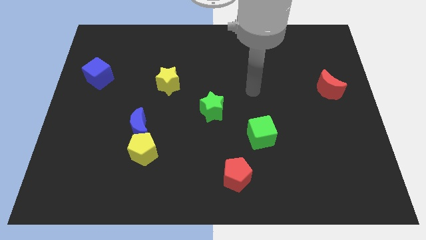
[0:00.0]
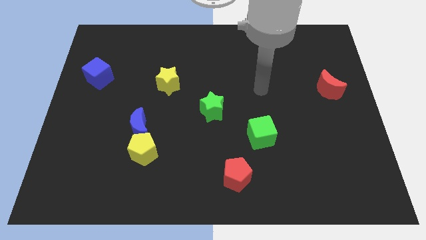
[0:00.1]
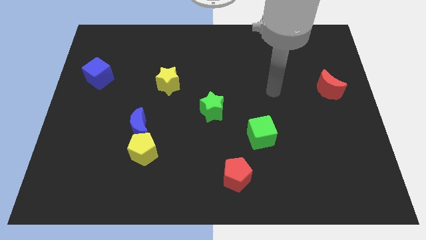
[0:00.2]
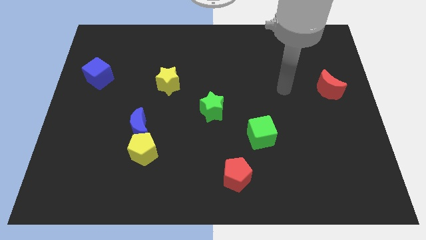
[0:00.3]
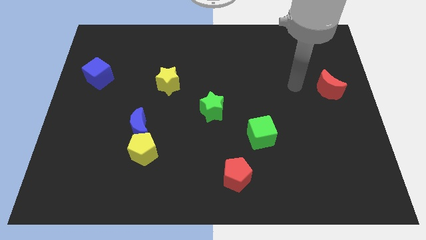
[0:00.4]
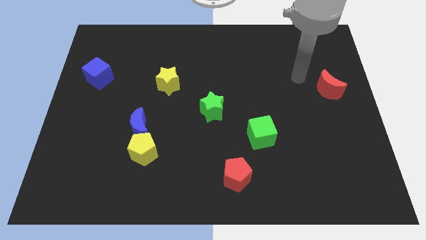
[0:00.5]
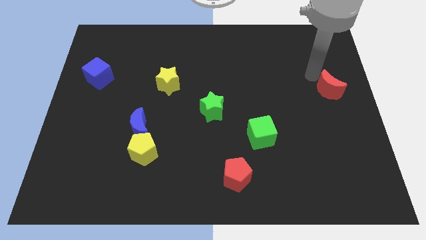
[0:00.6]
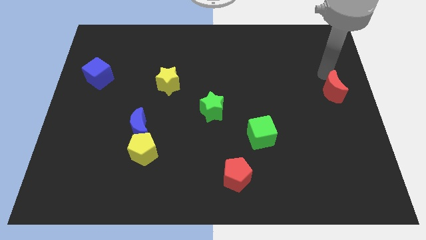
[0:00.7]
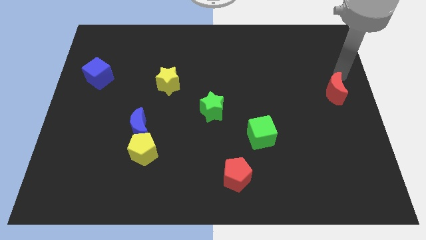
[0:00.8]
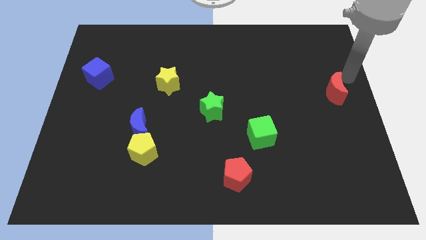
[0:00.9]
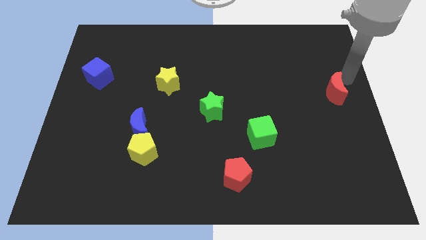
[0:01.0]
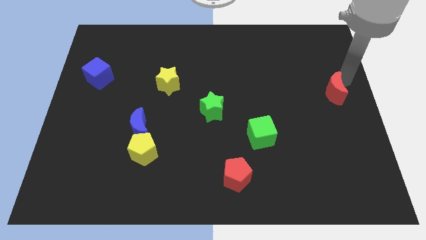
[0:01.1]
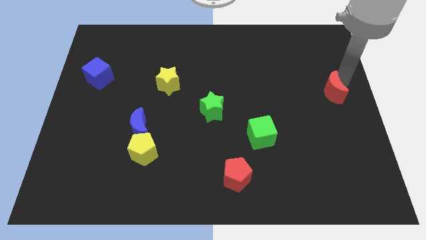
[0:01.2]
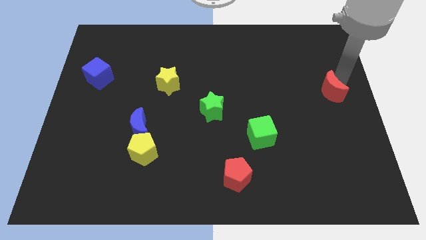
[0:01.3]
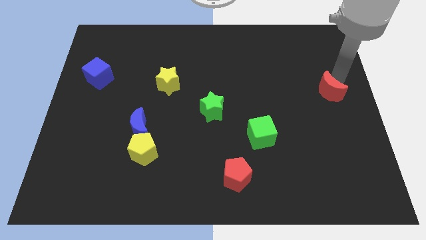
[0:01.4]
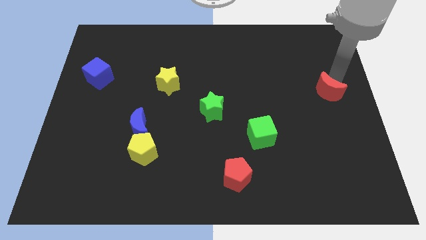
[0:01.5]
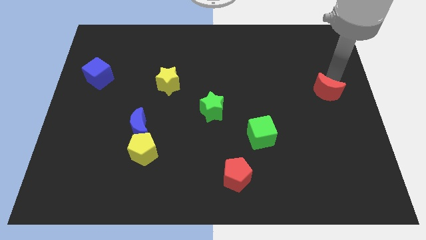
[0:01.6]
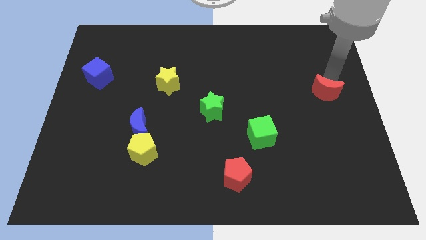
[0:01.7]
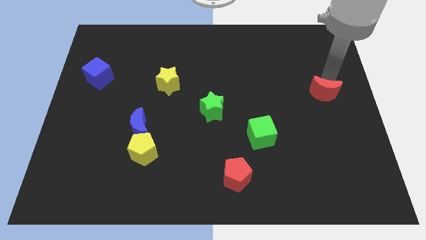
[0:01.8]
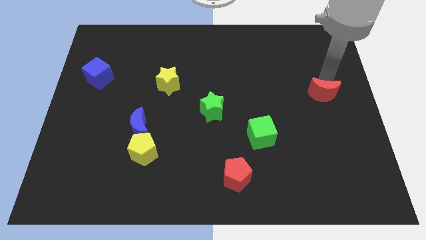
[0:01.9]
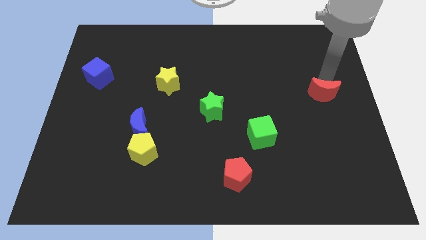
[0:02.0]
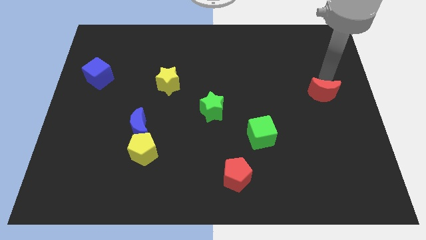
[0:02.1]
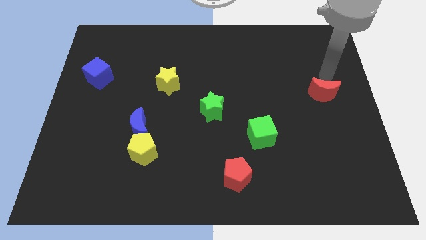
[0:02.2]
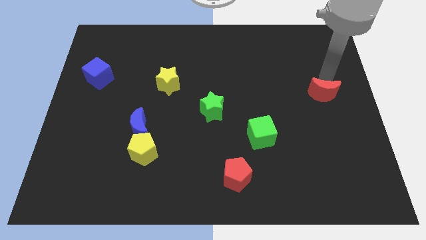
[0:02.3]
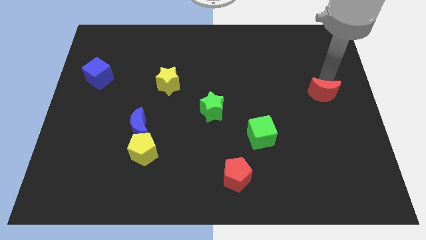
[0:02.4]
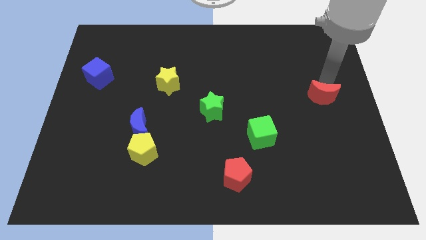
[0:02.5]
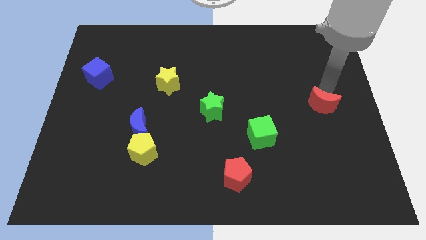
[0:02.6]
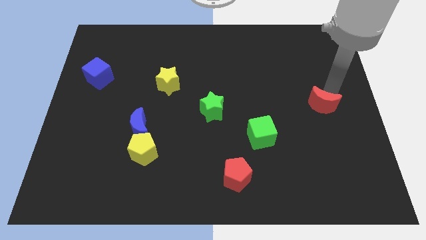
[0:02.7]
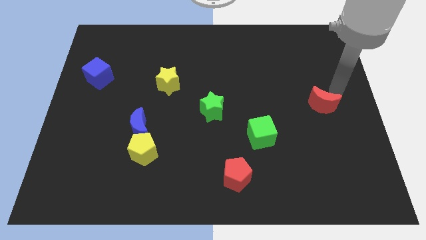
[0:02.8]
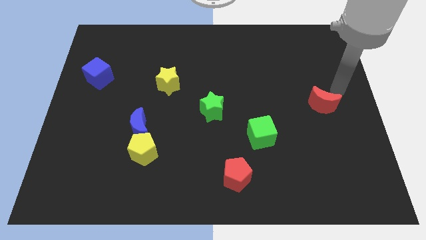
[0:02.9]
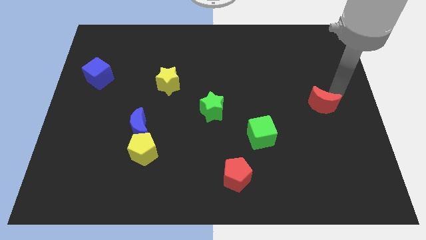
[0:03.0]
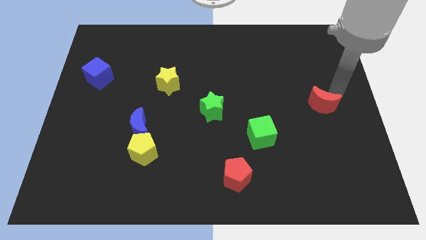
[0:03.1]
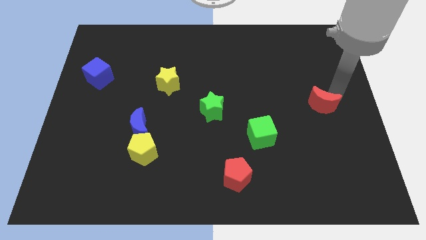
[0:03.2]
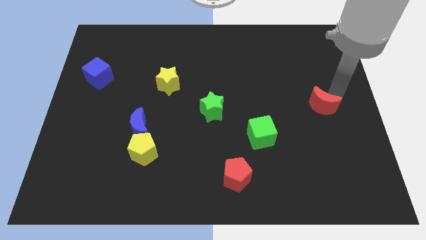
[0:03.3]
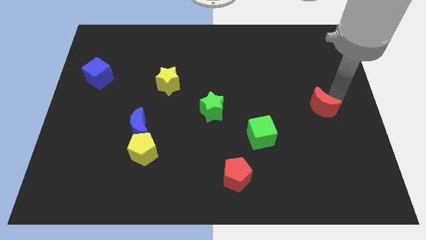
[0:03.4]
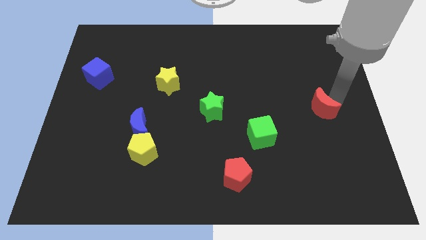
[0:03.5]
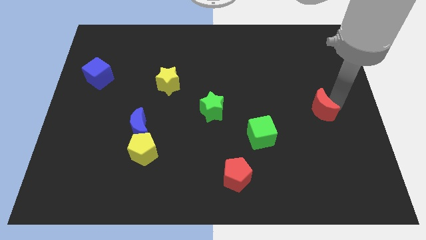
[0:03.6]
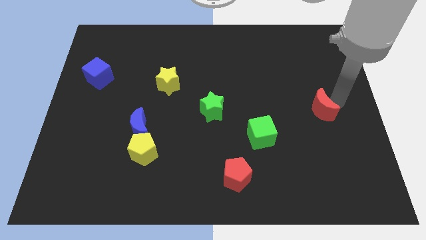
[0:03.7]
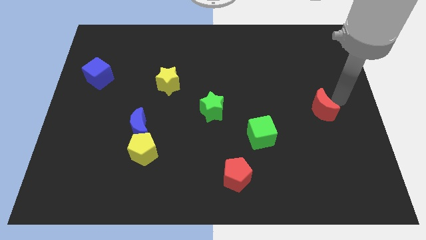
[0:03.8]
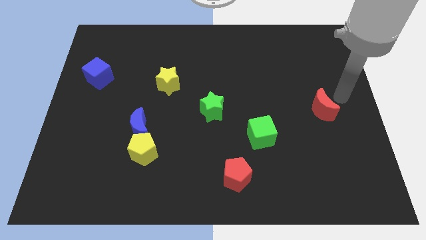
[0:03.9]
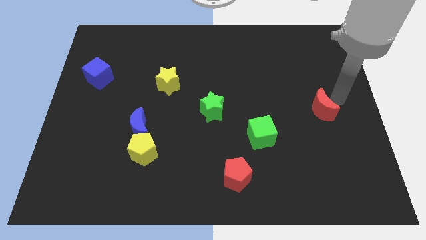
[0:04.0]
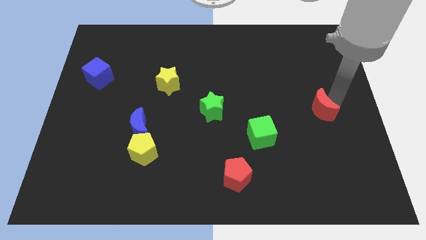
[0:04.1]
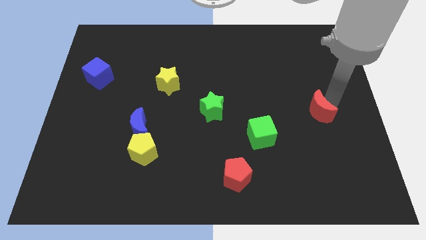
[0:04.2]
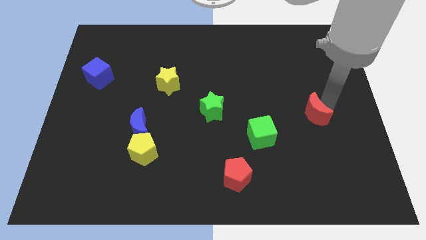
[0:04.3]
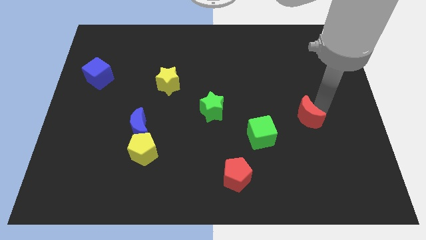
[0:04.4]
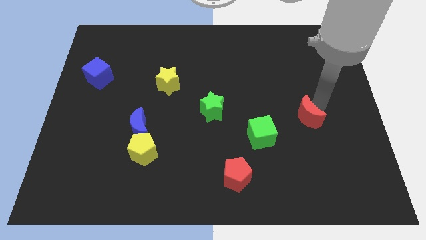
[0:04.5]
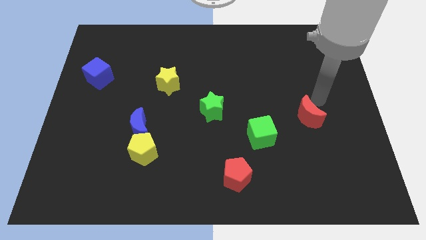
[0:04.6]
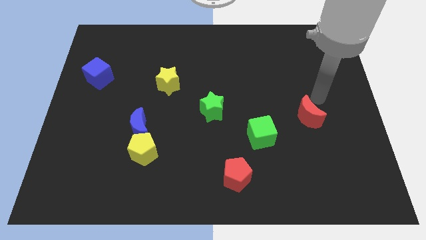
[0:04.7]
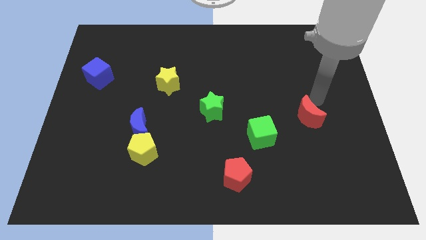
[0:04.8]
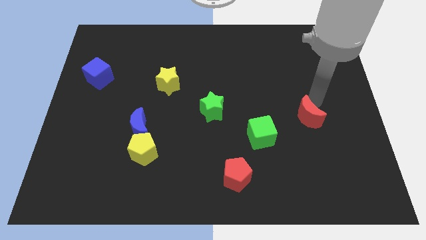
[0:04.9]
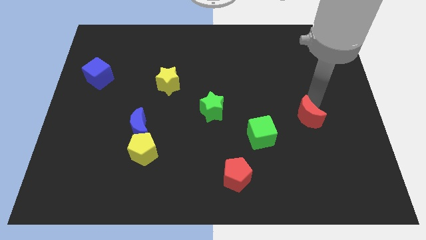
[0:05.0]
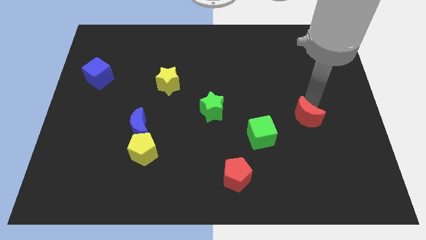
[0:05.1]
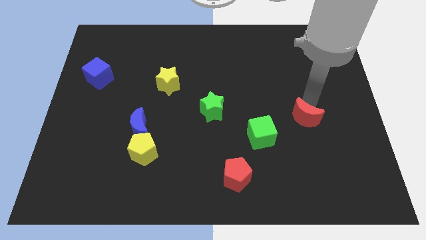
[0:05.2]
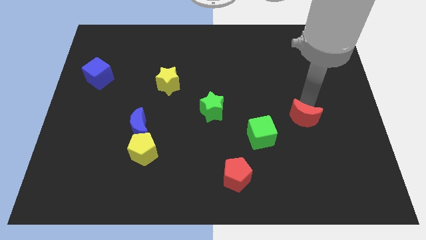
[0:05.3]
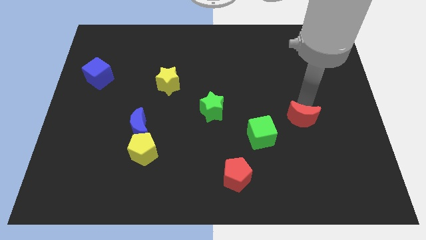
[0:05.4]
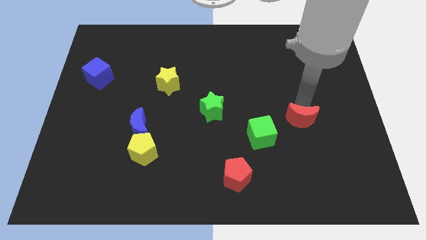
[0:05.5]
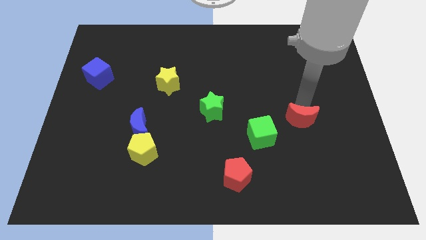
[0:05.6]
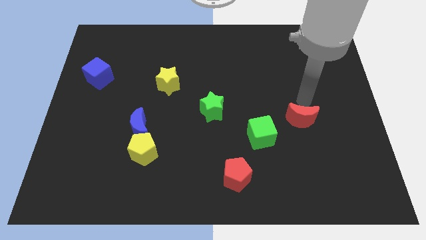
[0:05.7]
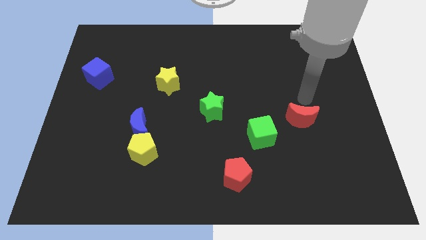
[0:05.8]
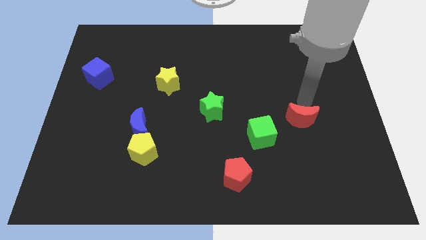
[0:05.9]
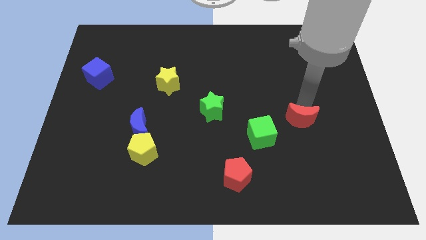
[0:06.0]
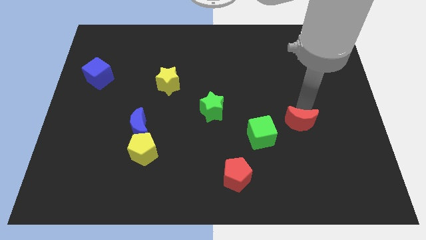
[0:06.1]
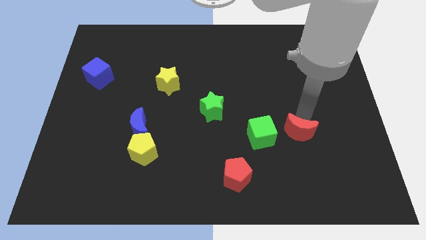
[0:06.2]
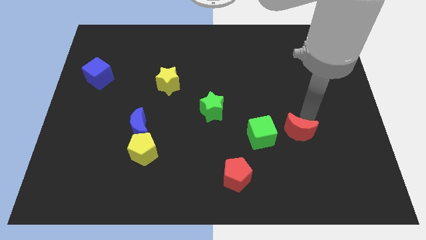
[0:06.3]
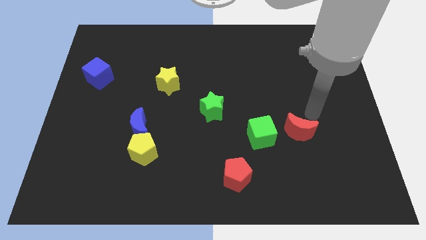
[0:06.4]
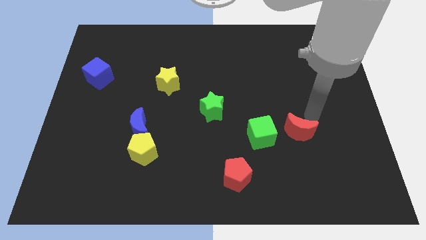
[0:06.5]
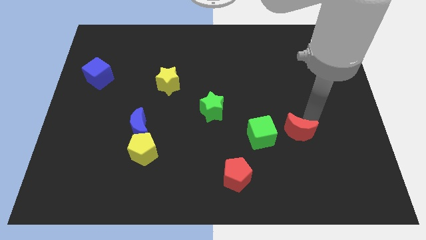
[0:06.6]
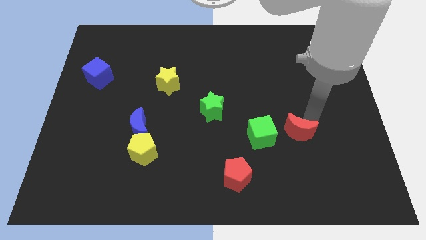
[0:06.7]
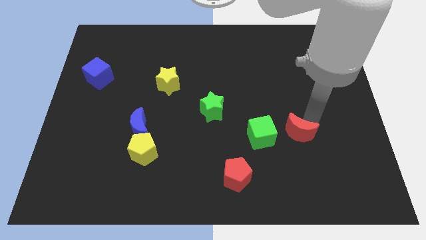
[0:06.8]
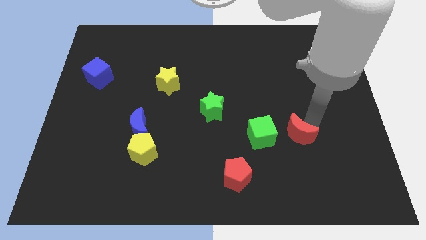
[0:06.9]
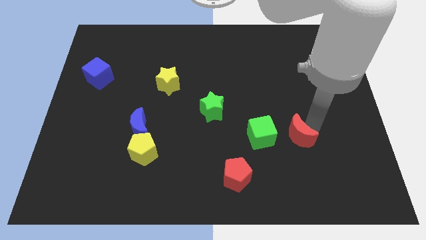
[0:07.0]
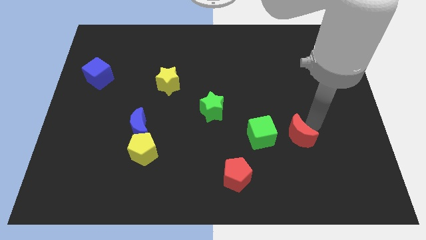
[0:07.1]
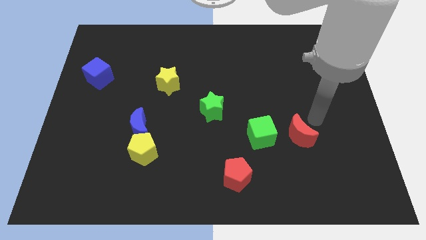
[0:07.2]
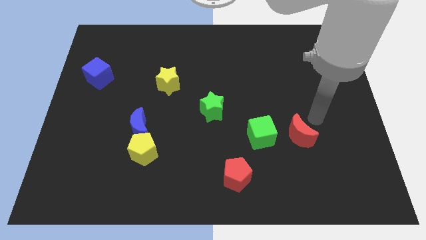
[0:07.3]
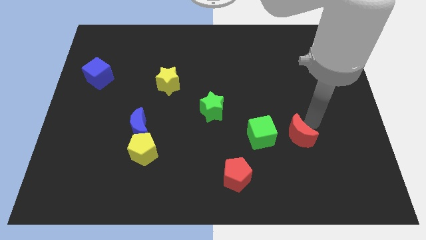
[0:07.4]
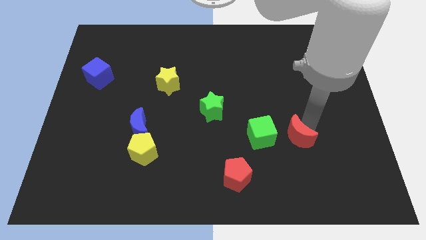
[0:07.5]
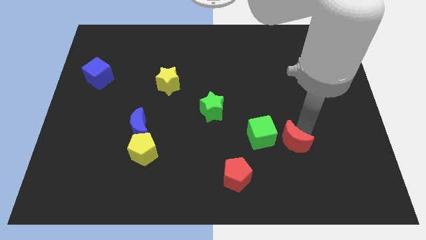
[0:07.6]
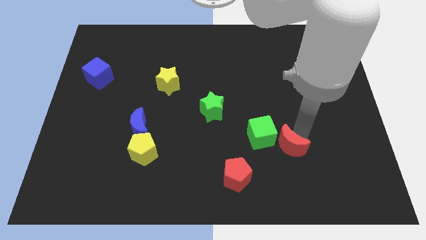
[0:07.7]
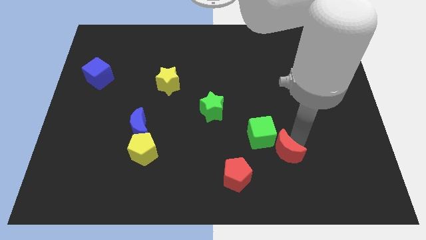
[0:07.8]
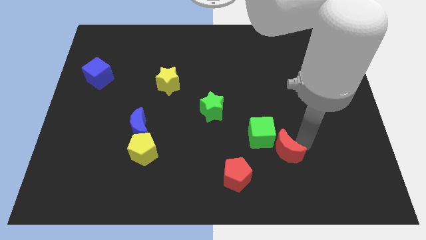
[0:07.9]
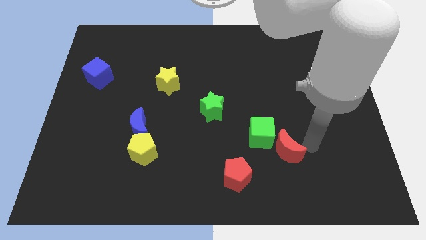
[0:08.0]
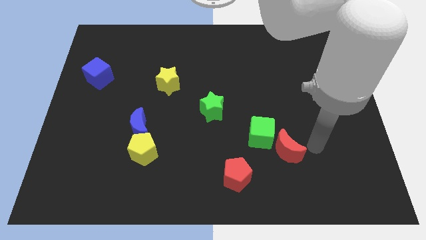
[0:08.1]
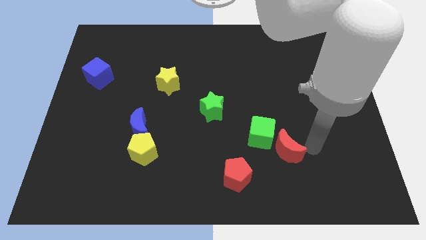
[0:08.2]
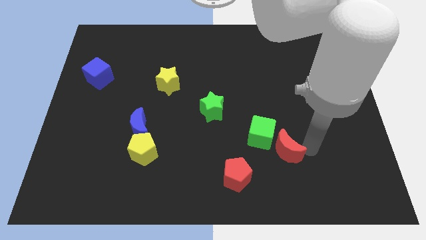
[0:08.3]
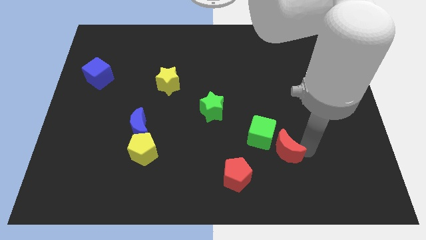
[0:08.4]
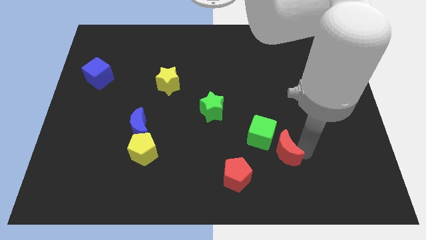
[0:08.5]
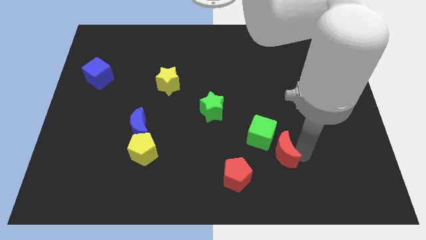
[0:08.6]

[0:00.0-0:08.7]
move the red moon to the top right side of the red pentagon
